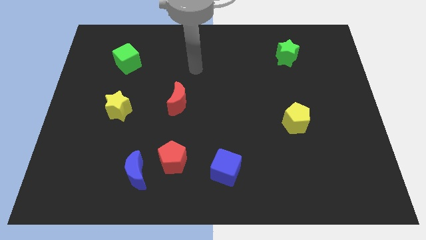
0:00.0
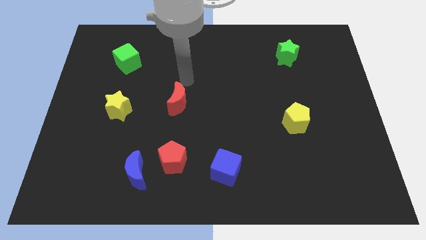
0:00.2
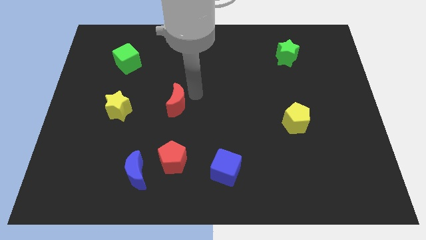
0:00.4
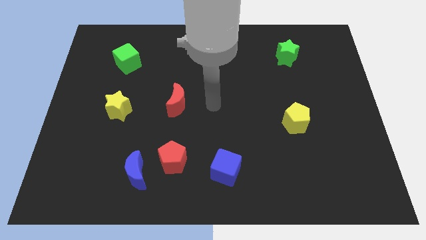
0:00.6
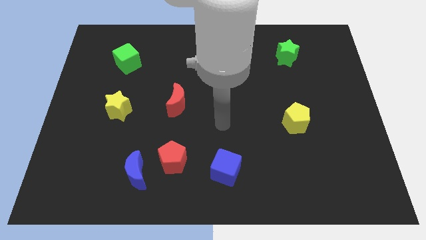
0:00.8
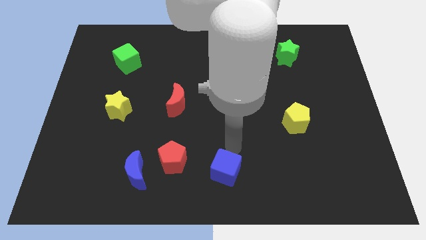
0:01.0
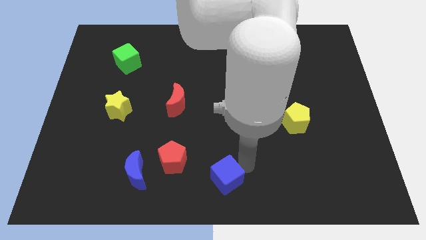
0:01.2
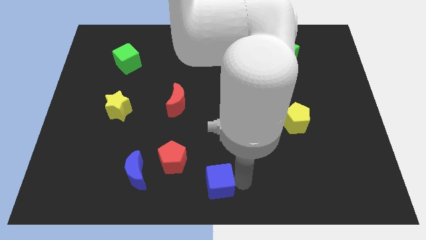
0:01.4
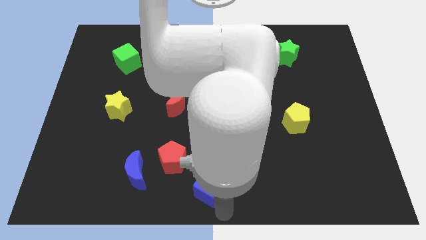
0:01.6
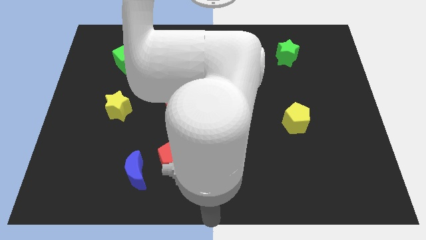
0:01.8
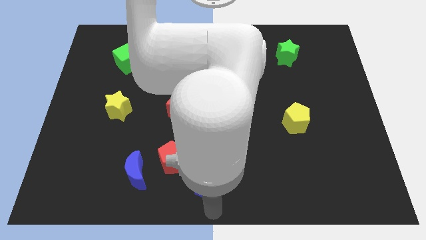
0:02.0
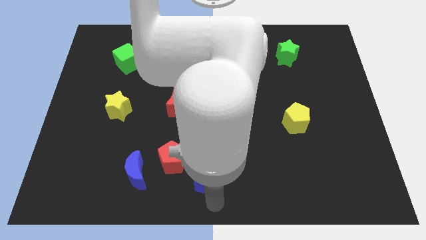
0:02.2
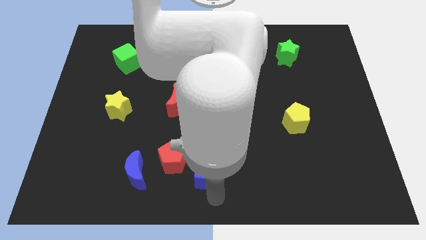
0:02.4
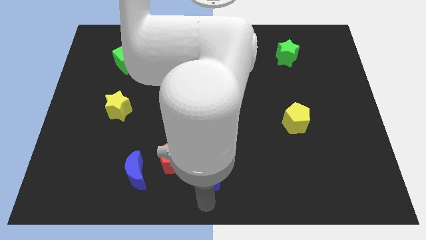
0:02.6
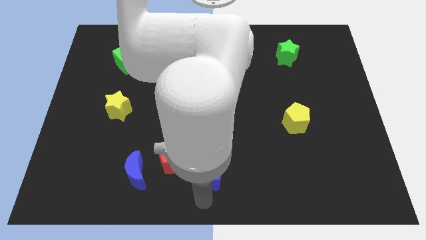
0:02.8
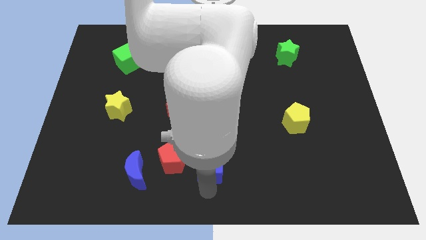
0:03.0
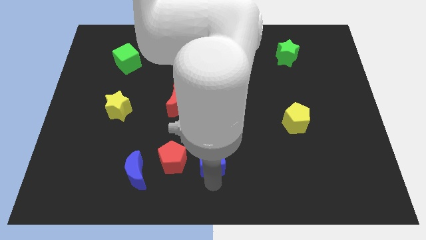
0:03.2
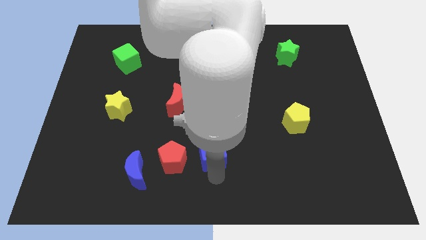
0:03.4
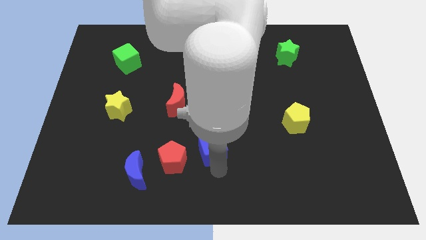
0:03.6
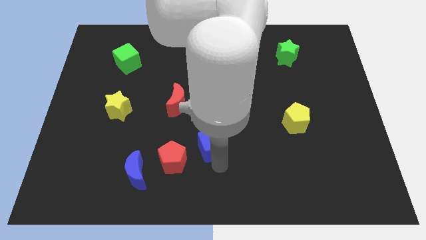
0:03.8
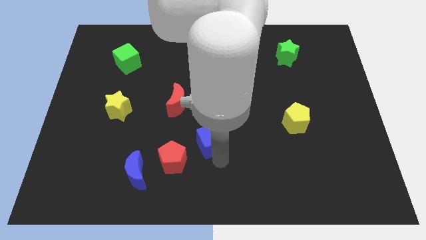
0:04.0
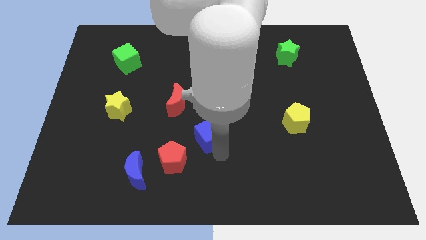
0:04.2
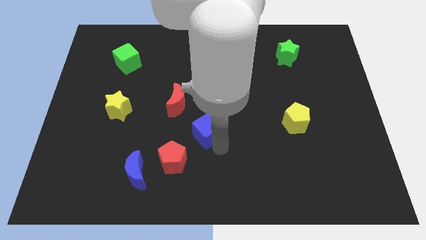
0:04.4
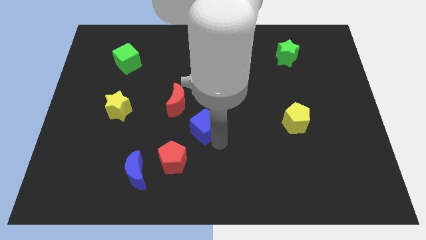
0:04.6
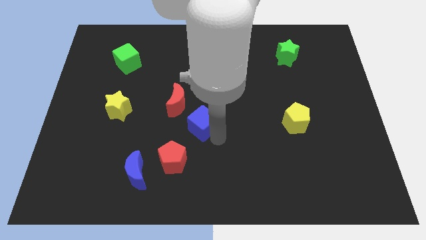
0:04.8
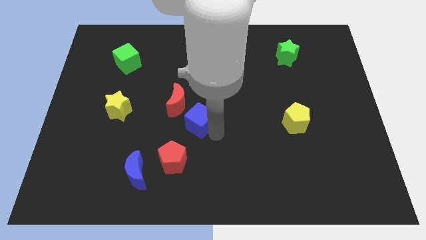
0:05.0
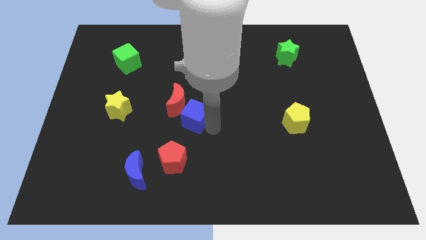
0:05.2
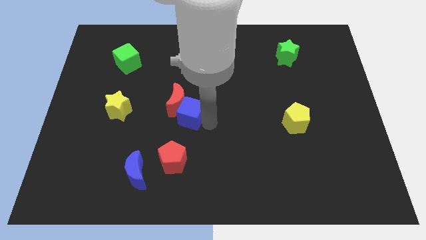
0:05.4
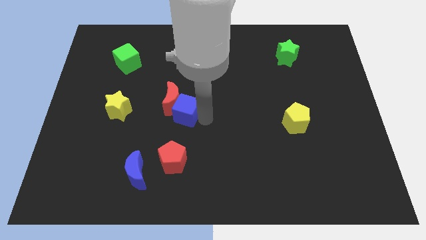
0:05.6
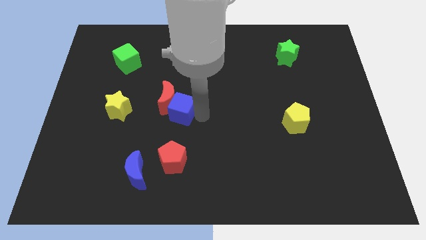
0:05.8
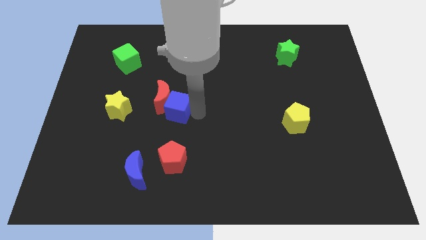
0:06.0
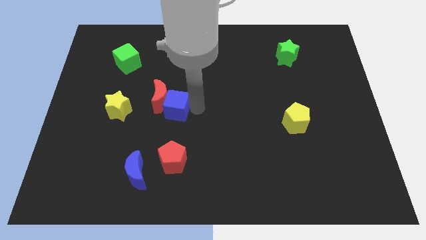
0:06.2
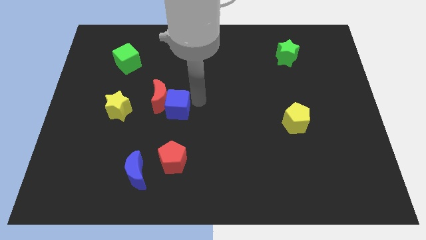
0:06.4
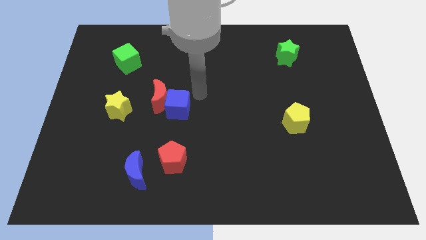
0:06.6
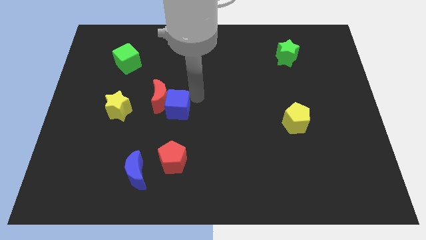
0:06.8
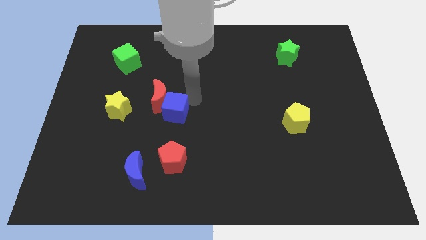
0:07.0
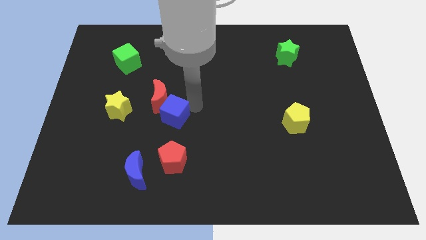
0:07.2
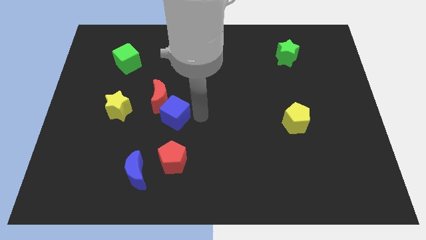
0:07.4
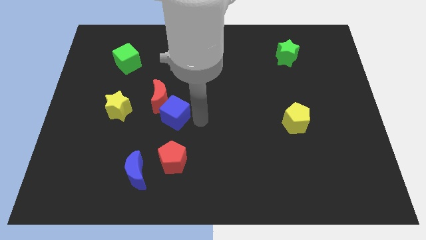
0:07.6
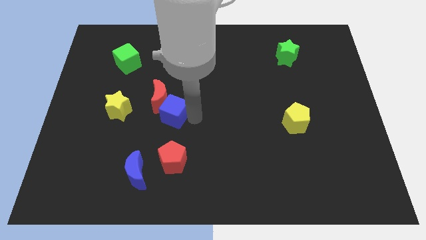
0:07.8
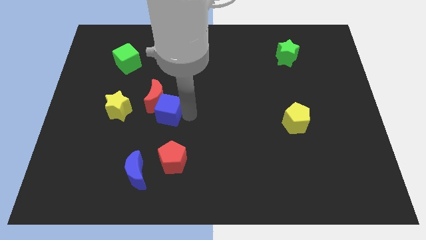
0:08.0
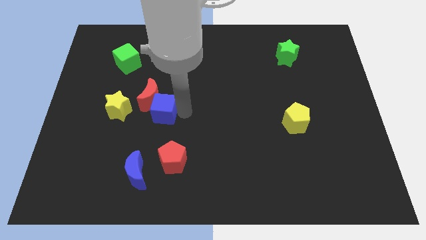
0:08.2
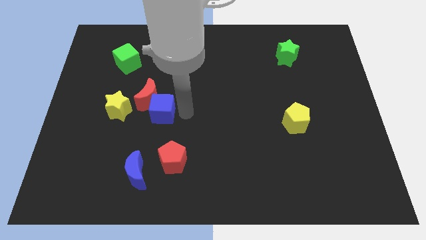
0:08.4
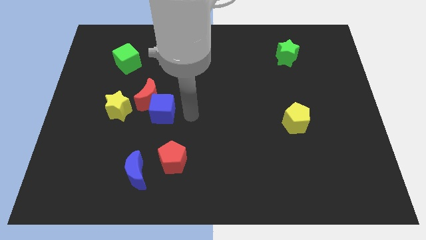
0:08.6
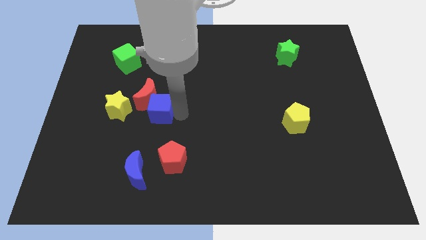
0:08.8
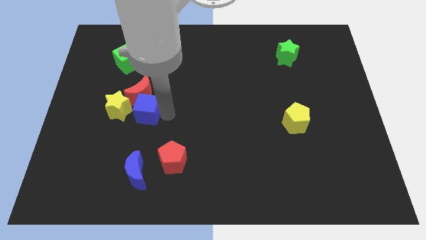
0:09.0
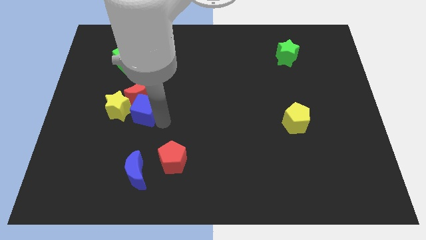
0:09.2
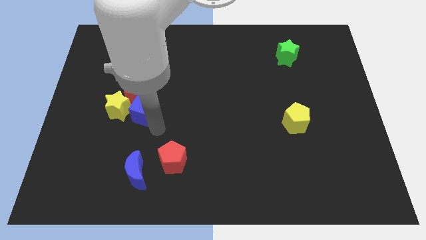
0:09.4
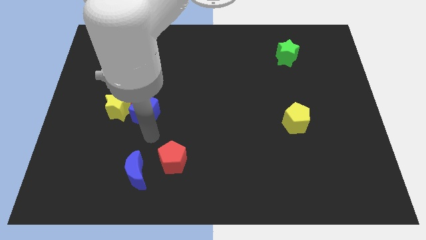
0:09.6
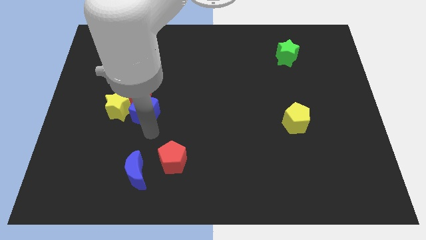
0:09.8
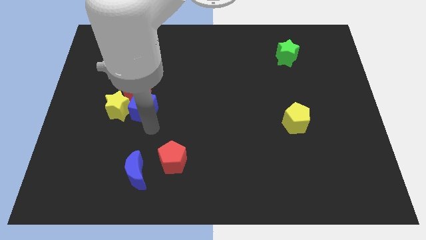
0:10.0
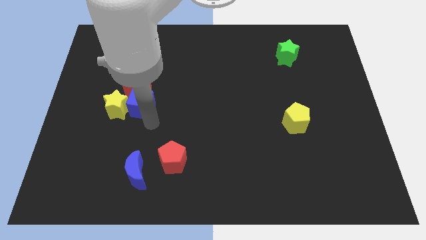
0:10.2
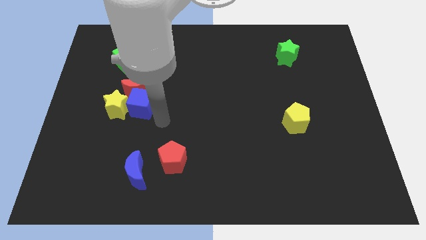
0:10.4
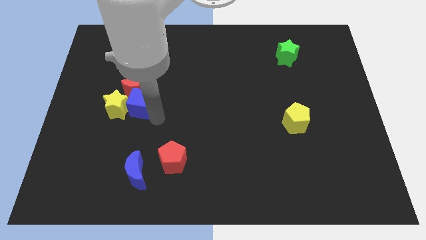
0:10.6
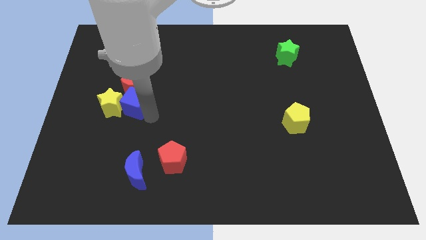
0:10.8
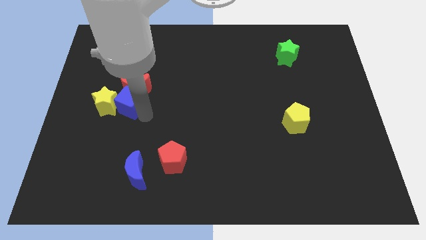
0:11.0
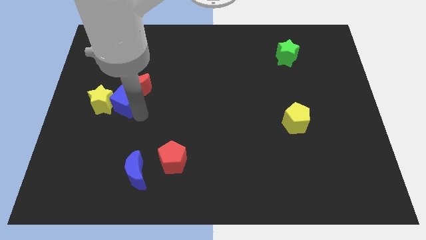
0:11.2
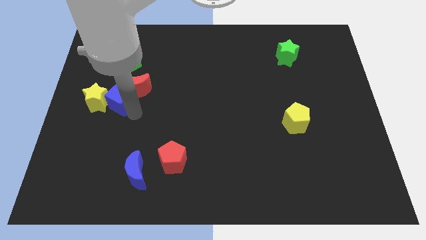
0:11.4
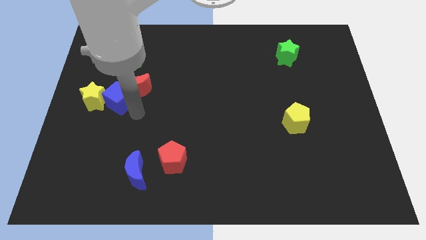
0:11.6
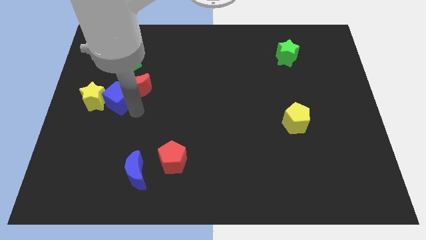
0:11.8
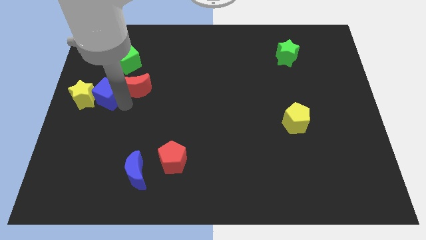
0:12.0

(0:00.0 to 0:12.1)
put the blue cube to the center left
